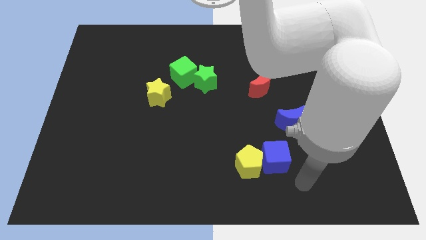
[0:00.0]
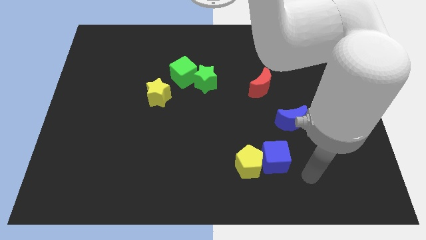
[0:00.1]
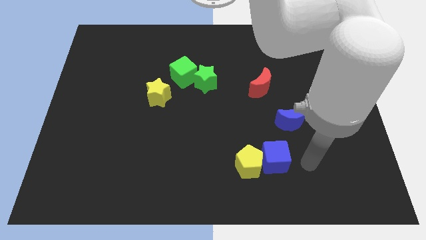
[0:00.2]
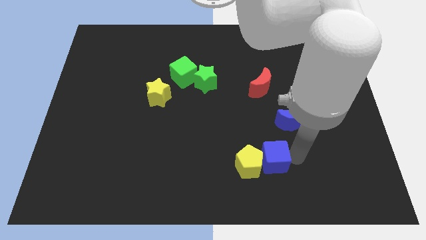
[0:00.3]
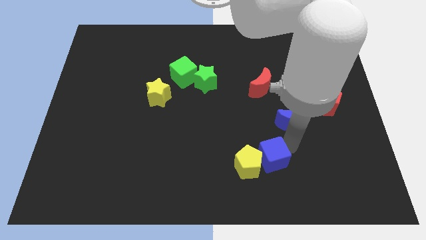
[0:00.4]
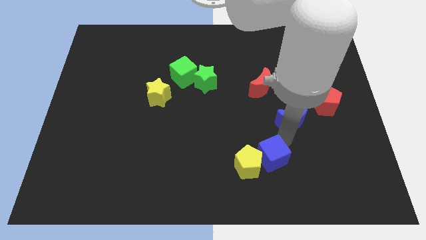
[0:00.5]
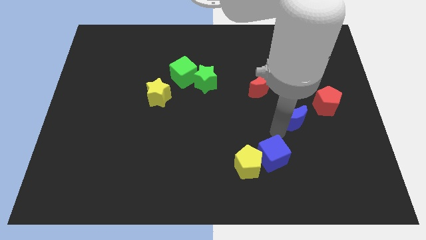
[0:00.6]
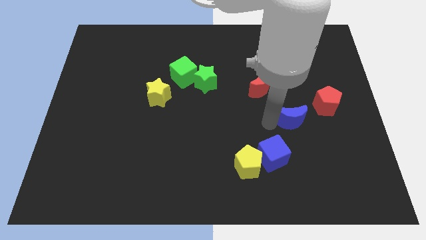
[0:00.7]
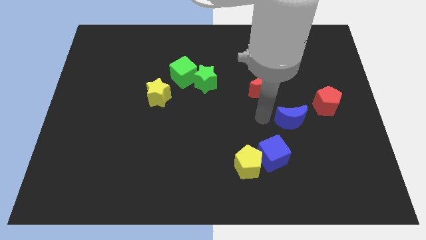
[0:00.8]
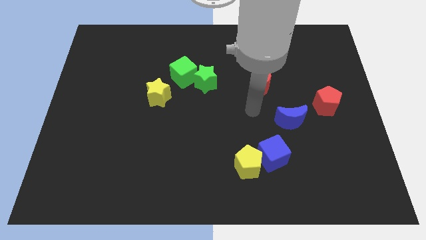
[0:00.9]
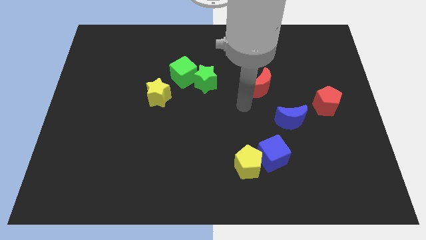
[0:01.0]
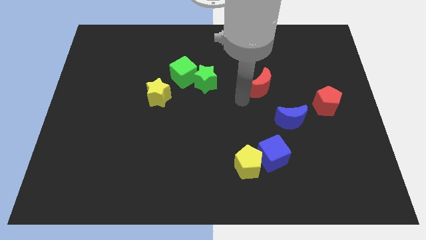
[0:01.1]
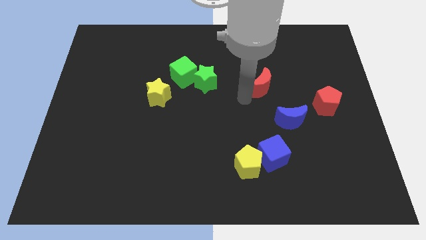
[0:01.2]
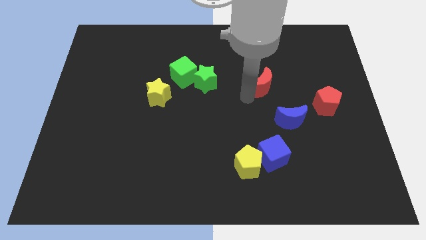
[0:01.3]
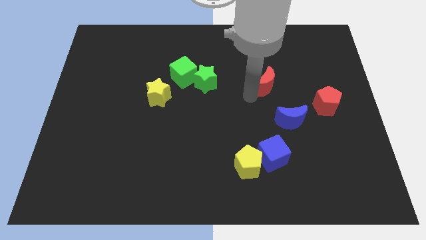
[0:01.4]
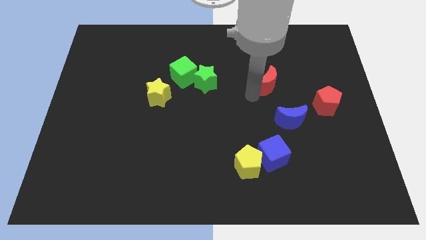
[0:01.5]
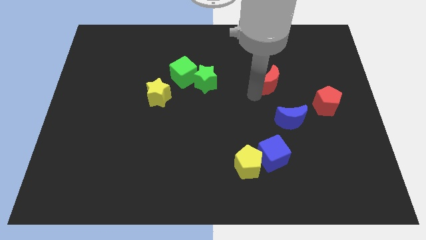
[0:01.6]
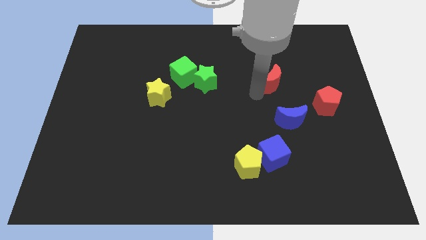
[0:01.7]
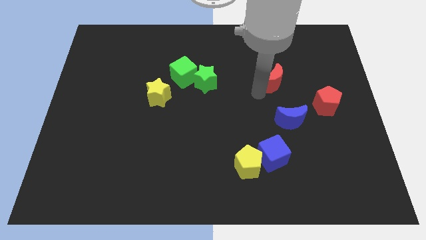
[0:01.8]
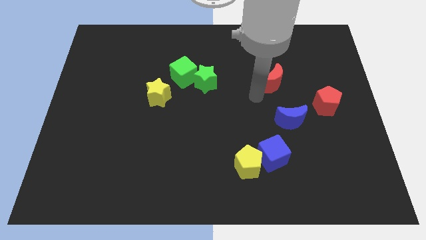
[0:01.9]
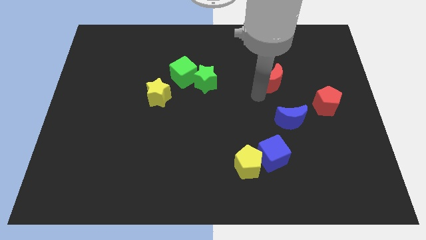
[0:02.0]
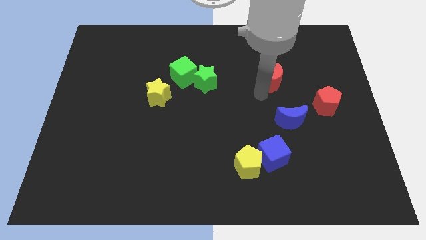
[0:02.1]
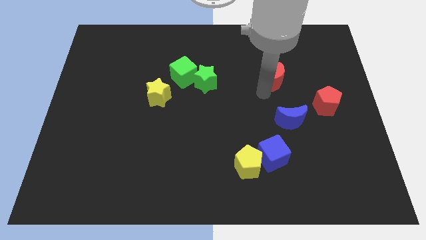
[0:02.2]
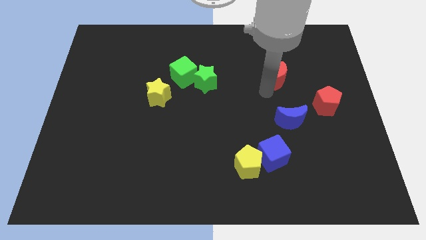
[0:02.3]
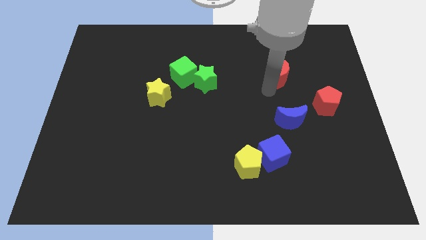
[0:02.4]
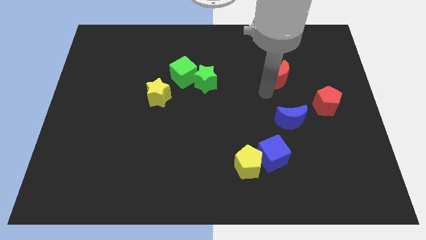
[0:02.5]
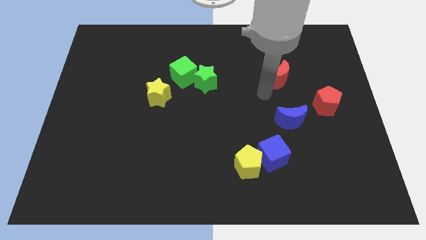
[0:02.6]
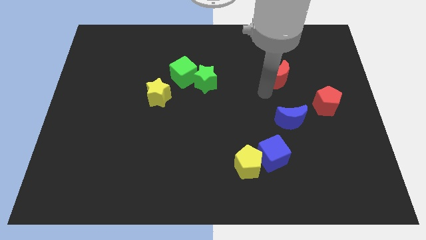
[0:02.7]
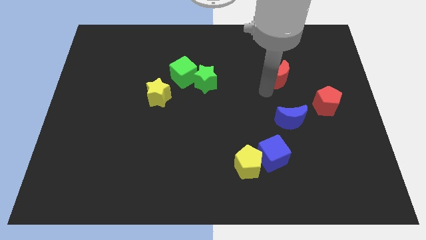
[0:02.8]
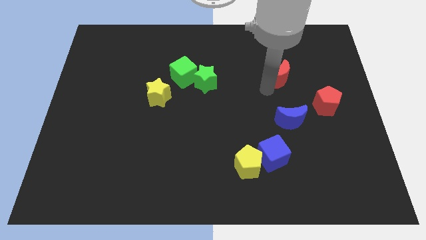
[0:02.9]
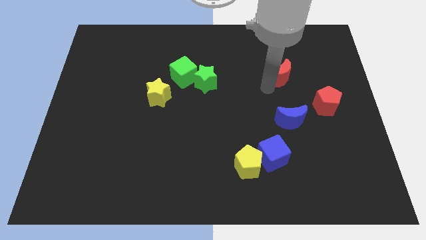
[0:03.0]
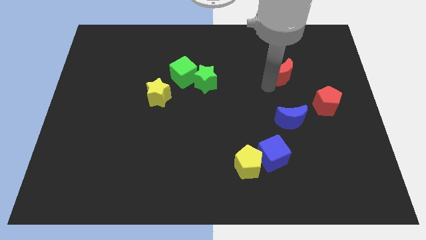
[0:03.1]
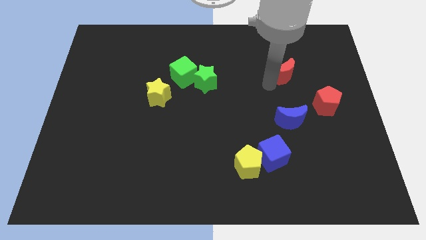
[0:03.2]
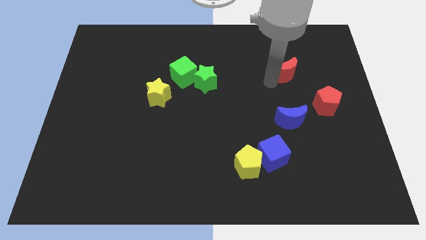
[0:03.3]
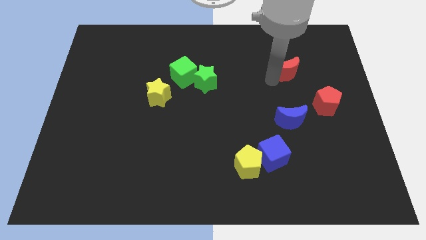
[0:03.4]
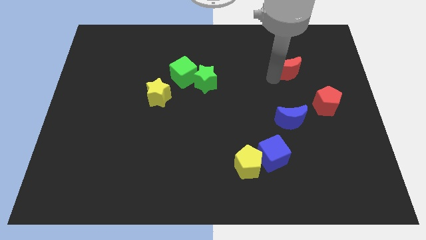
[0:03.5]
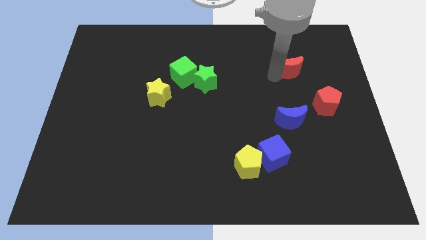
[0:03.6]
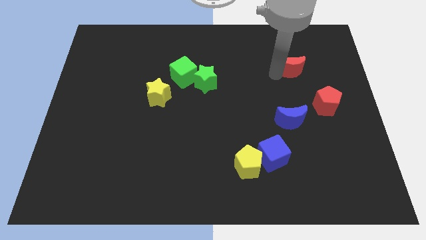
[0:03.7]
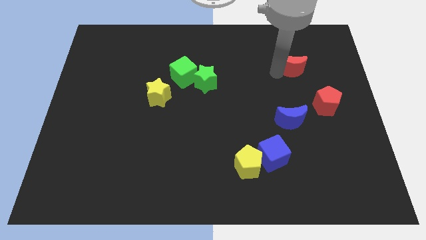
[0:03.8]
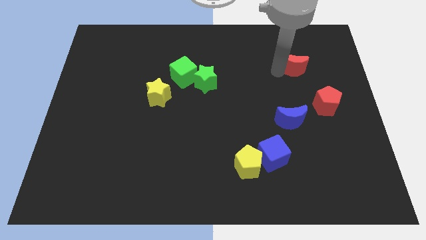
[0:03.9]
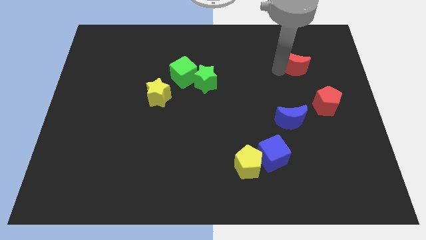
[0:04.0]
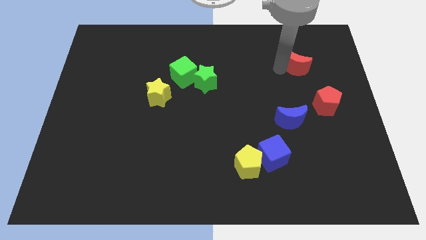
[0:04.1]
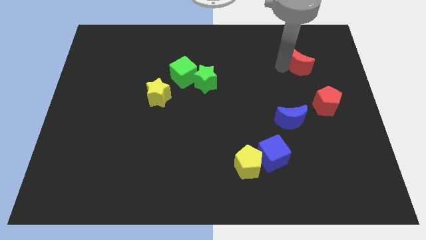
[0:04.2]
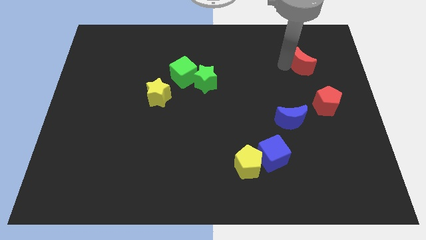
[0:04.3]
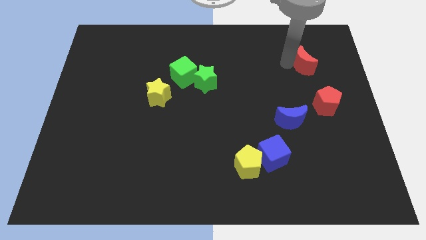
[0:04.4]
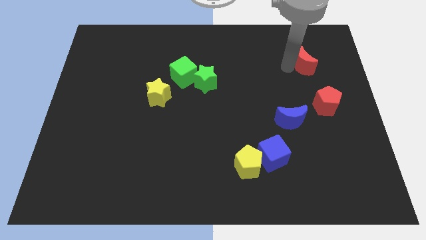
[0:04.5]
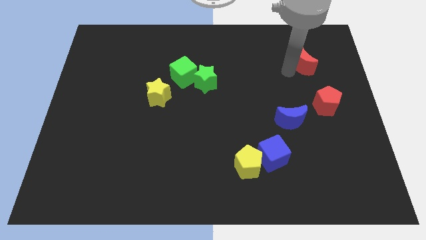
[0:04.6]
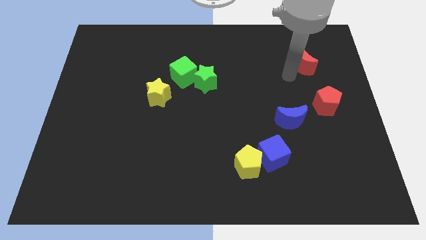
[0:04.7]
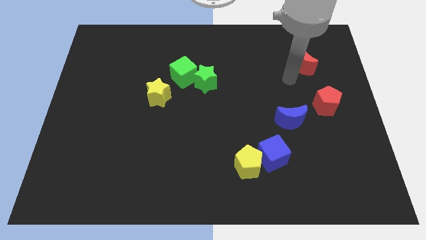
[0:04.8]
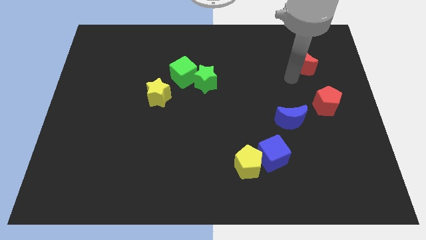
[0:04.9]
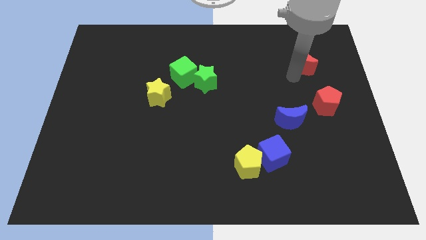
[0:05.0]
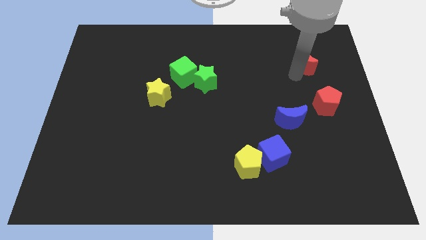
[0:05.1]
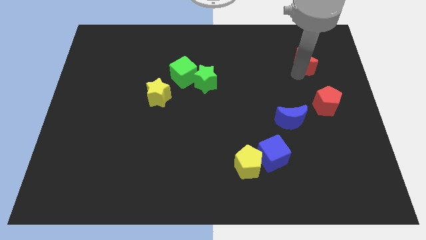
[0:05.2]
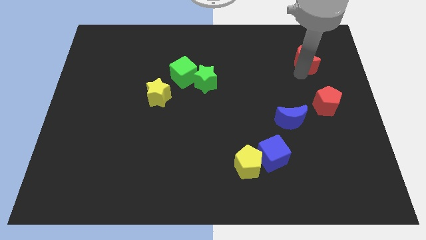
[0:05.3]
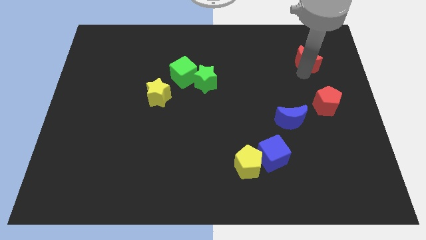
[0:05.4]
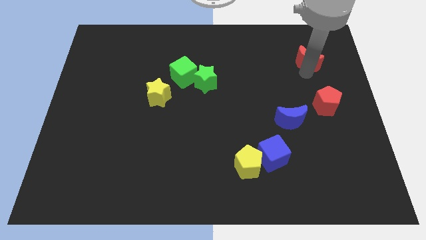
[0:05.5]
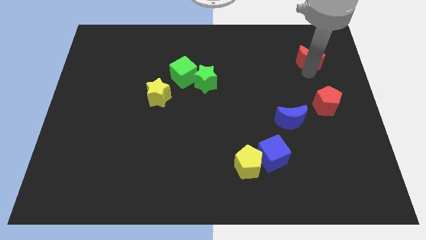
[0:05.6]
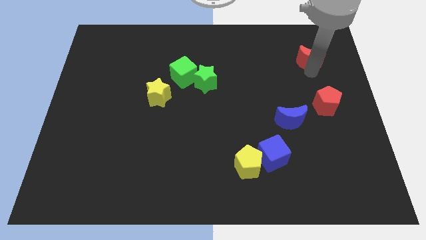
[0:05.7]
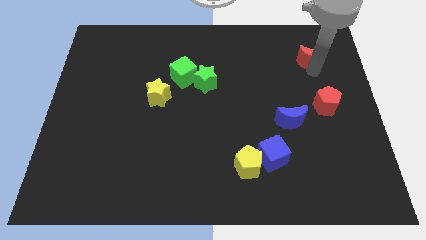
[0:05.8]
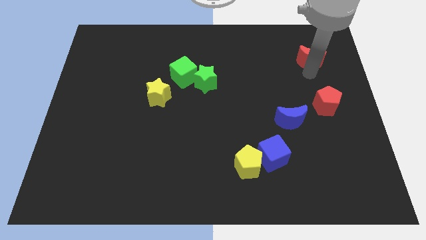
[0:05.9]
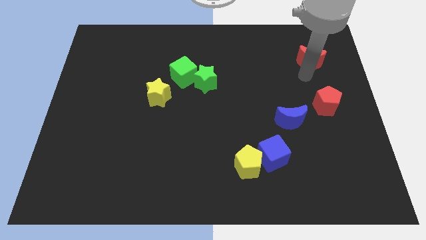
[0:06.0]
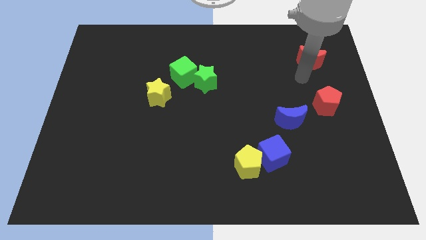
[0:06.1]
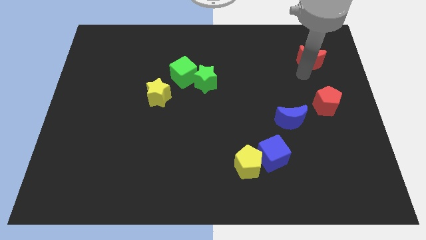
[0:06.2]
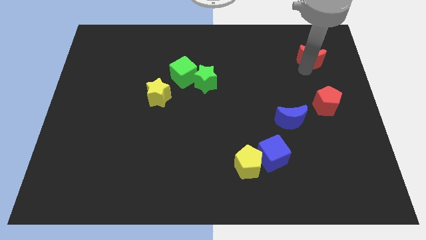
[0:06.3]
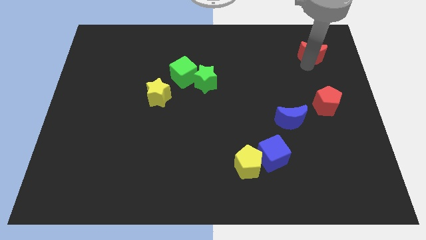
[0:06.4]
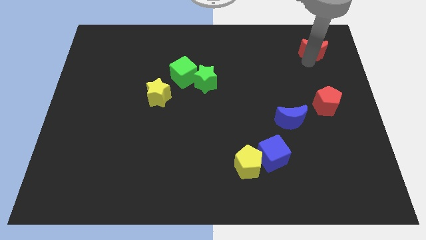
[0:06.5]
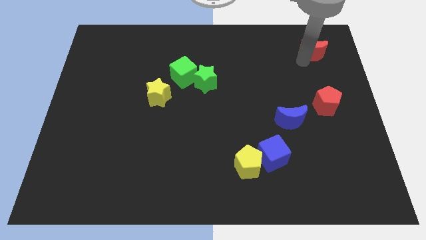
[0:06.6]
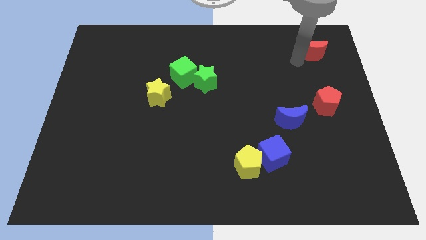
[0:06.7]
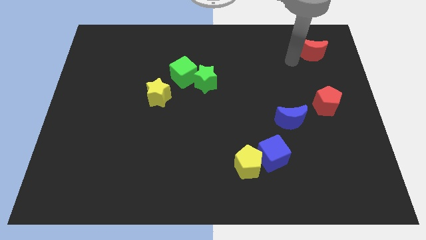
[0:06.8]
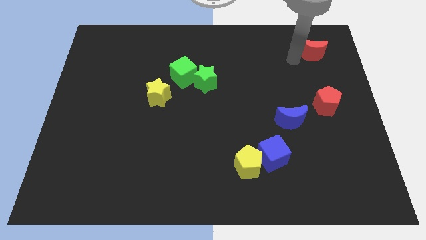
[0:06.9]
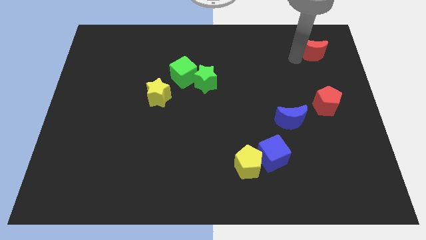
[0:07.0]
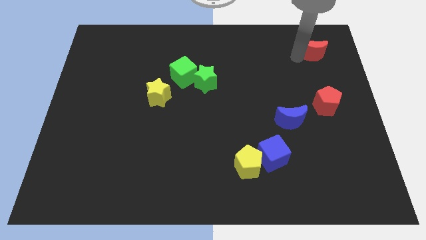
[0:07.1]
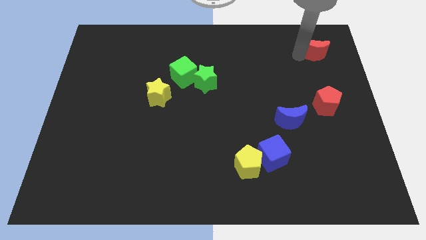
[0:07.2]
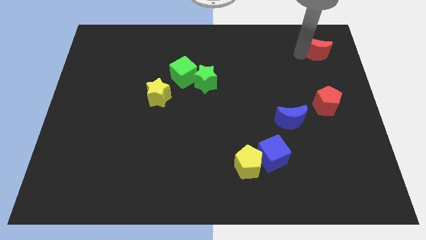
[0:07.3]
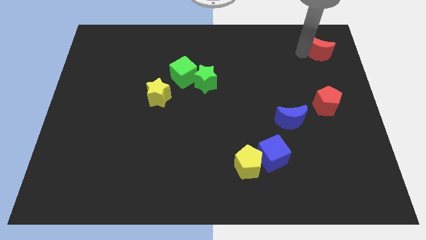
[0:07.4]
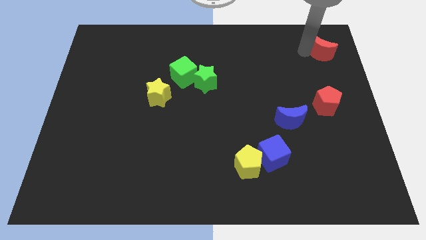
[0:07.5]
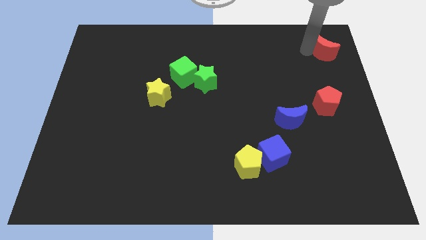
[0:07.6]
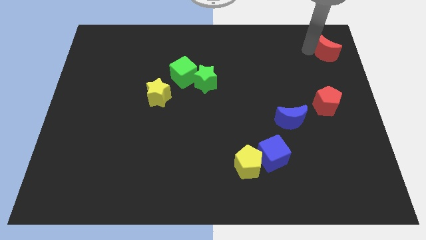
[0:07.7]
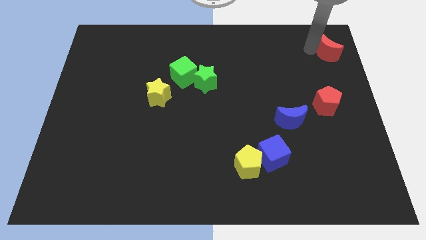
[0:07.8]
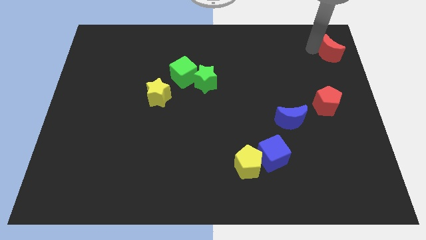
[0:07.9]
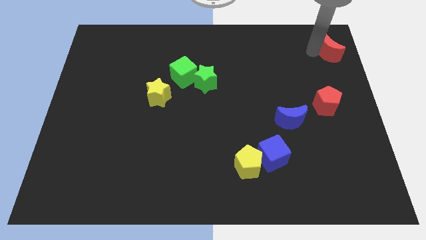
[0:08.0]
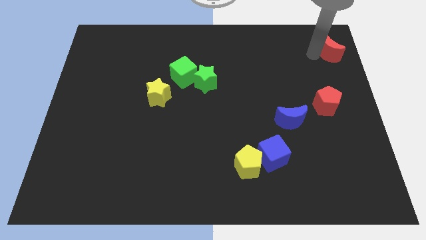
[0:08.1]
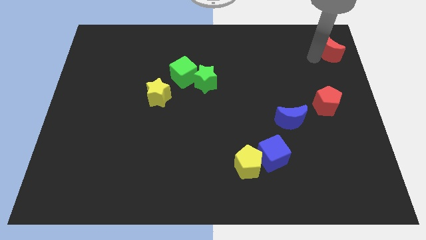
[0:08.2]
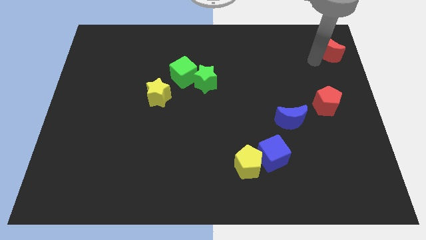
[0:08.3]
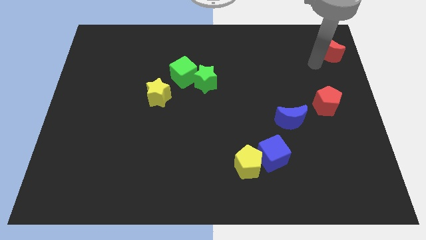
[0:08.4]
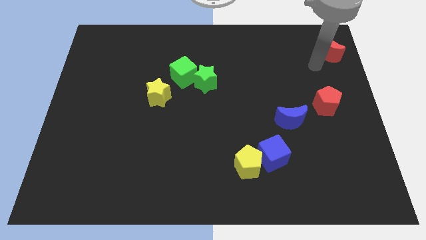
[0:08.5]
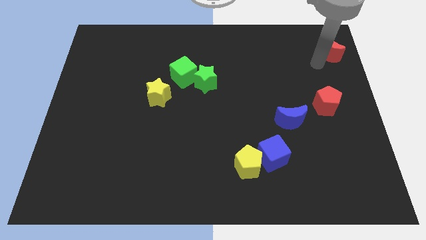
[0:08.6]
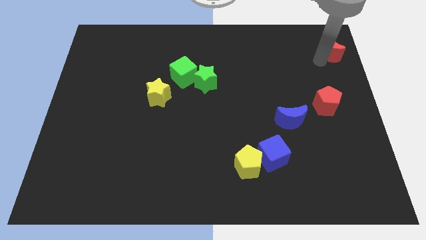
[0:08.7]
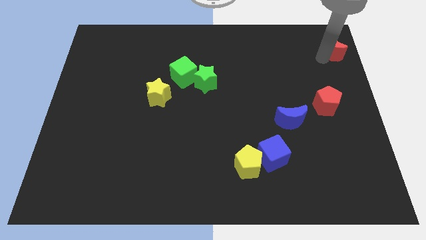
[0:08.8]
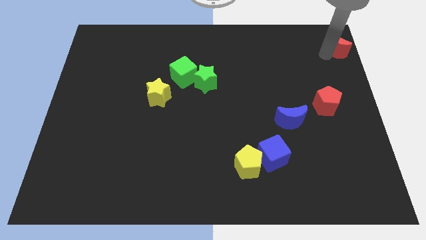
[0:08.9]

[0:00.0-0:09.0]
slide the red moon to the top right of the board
